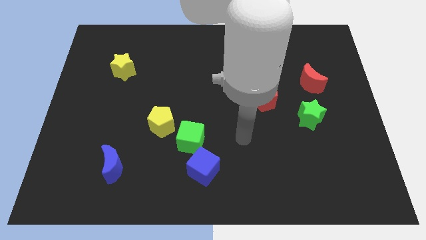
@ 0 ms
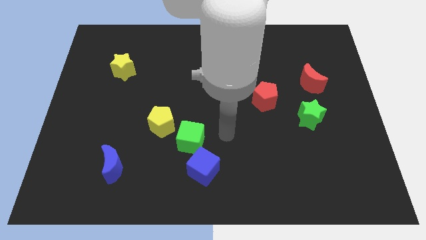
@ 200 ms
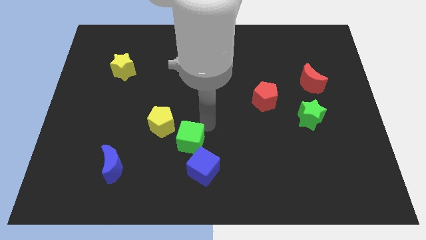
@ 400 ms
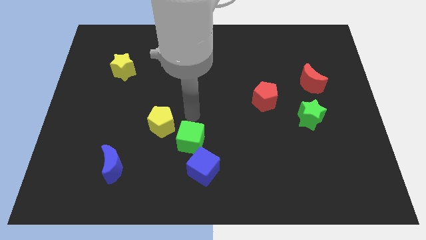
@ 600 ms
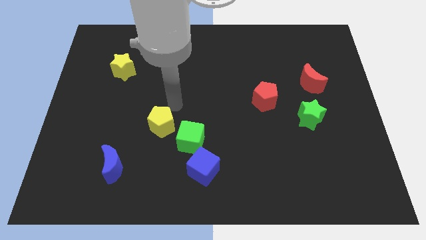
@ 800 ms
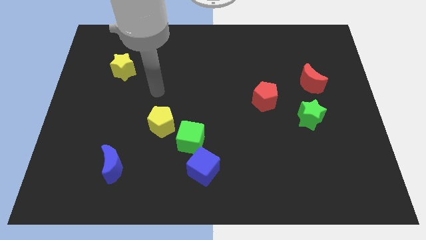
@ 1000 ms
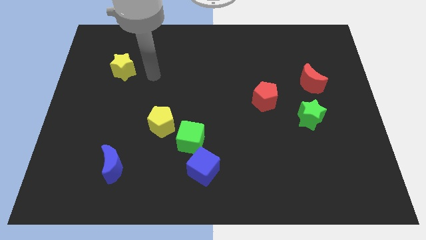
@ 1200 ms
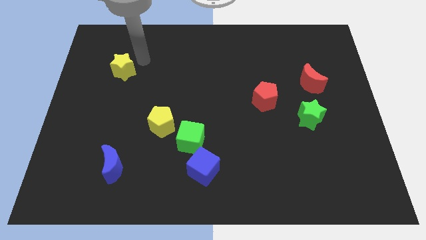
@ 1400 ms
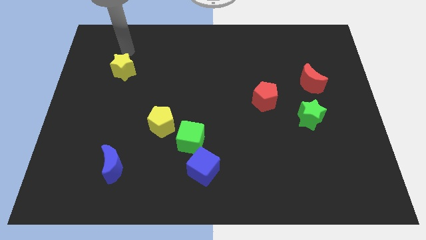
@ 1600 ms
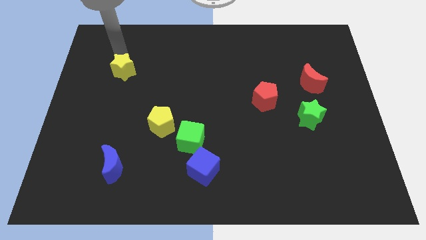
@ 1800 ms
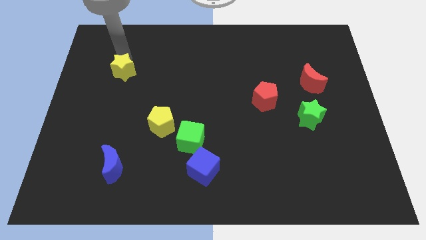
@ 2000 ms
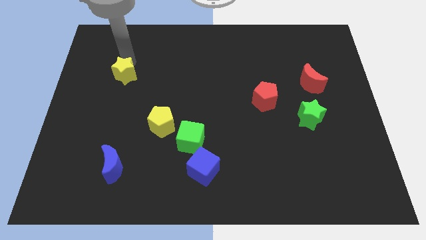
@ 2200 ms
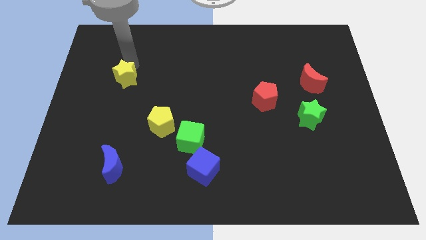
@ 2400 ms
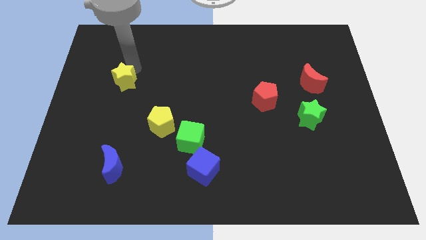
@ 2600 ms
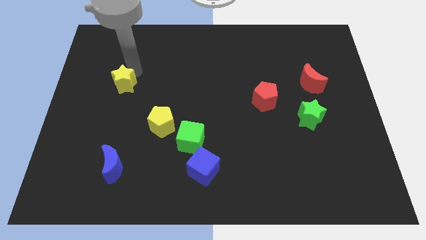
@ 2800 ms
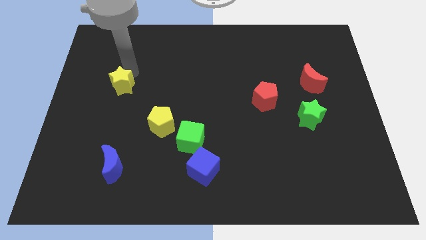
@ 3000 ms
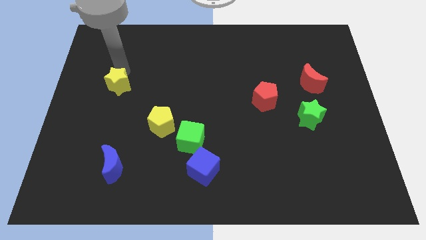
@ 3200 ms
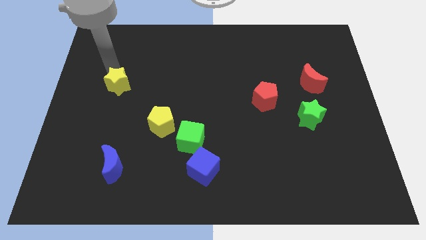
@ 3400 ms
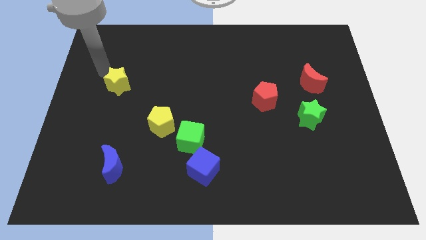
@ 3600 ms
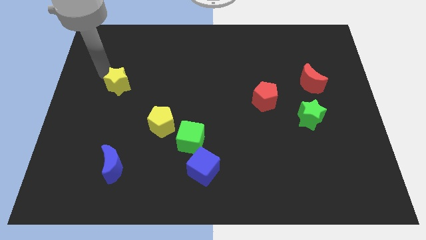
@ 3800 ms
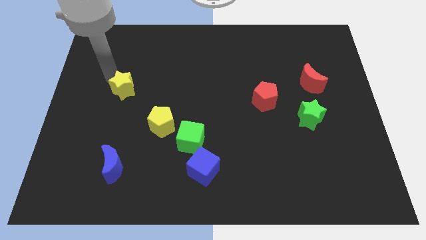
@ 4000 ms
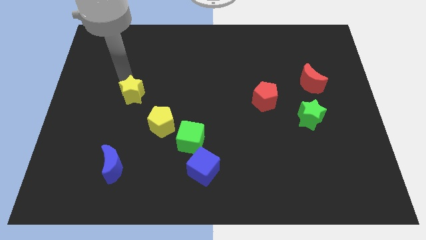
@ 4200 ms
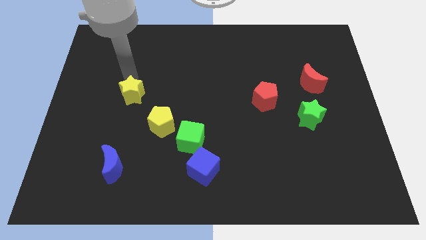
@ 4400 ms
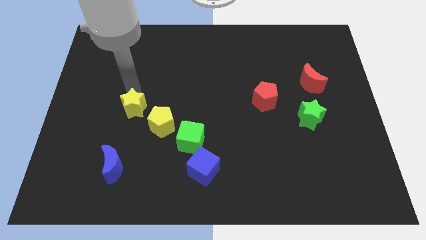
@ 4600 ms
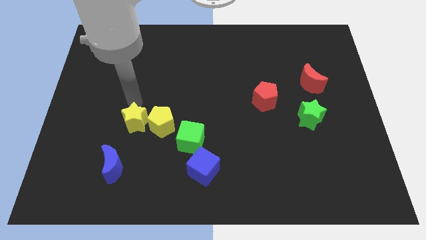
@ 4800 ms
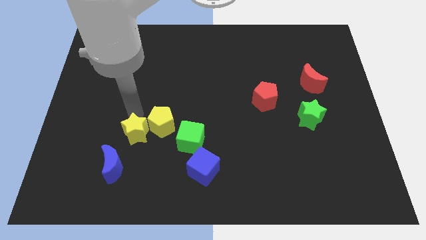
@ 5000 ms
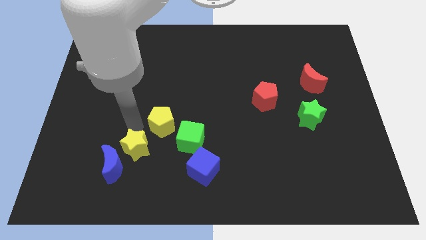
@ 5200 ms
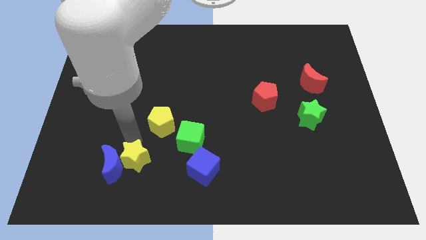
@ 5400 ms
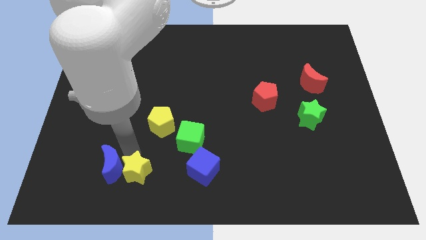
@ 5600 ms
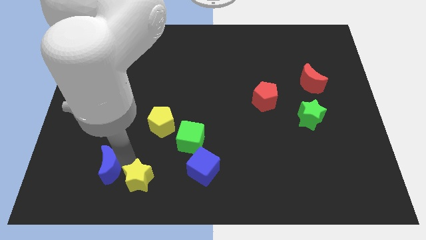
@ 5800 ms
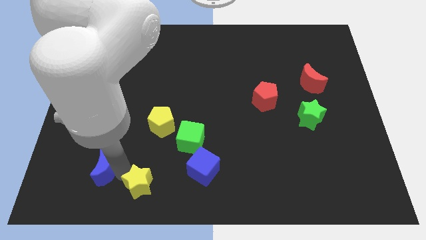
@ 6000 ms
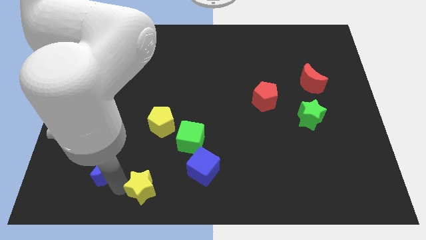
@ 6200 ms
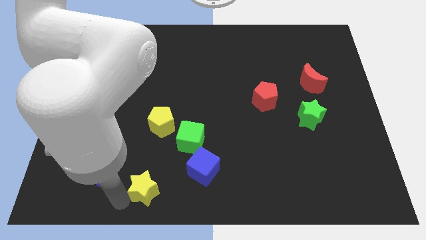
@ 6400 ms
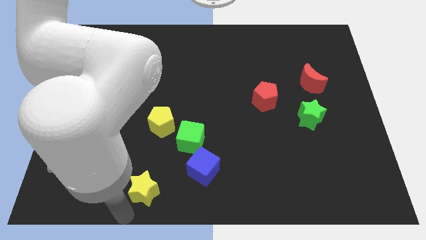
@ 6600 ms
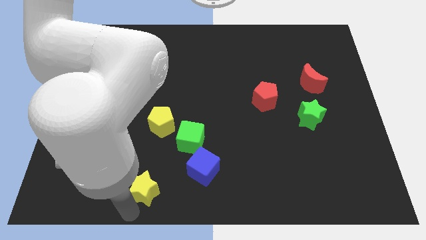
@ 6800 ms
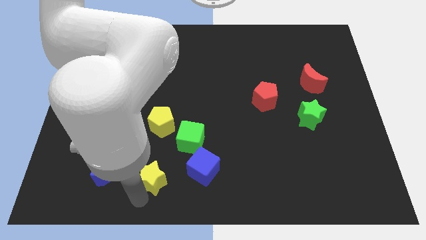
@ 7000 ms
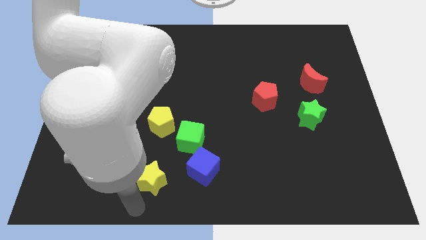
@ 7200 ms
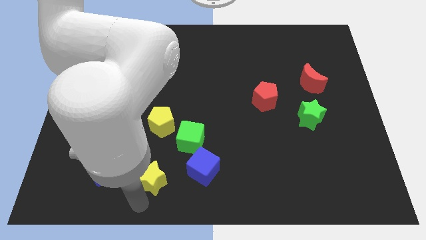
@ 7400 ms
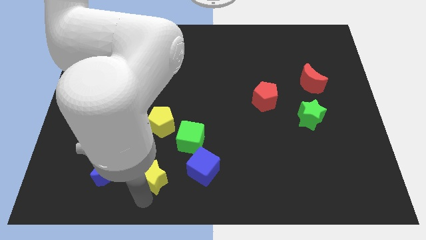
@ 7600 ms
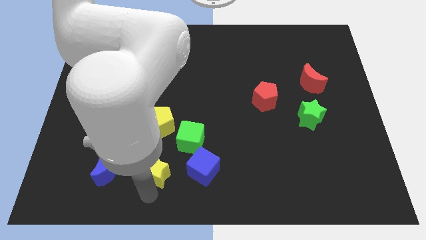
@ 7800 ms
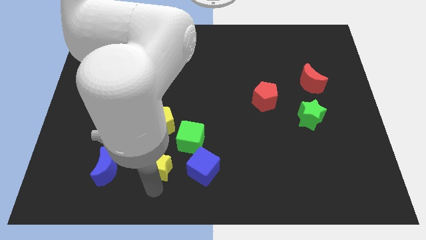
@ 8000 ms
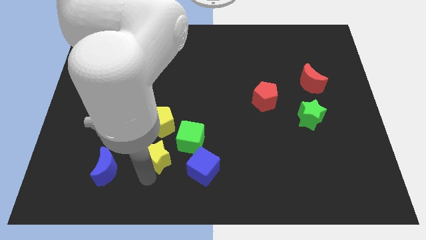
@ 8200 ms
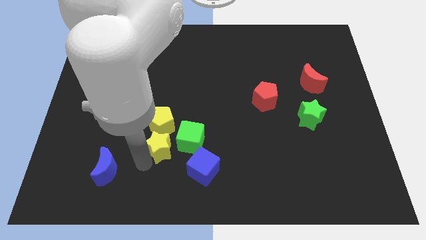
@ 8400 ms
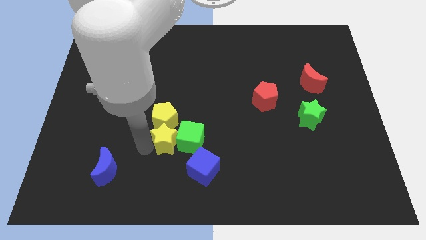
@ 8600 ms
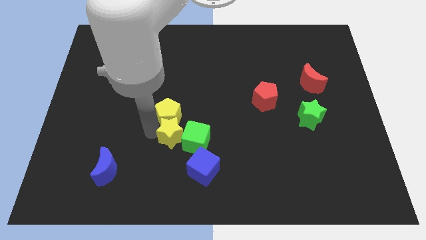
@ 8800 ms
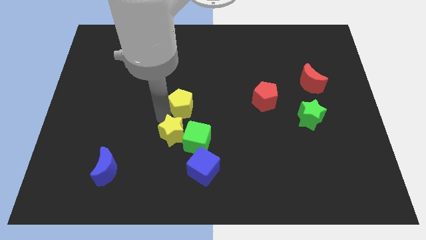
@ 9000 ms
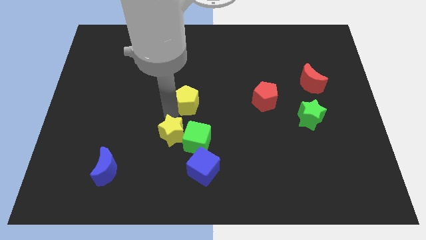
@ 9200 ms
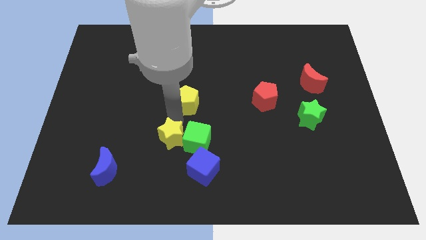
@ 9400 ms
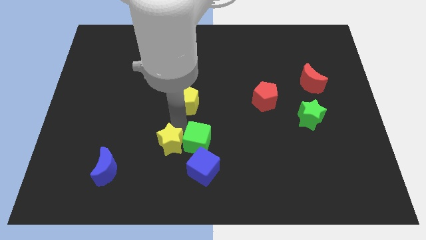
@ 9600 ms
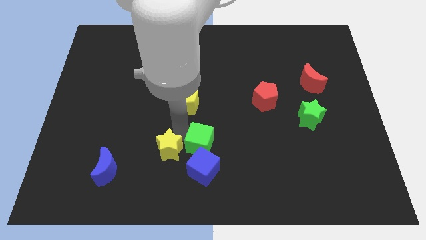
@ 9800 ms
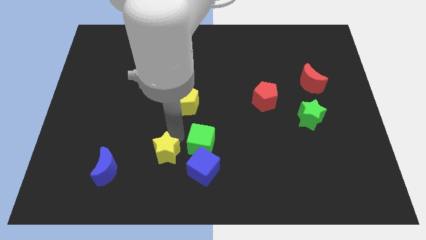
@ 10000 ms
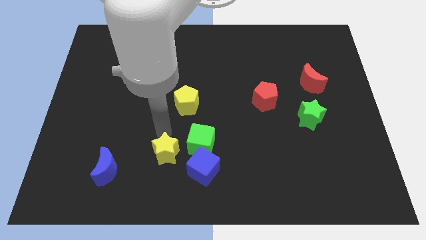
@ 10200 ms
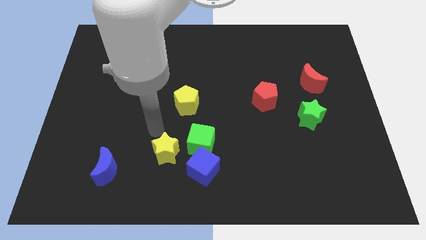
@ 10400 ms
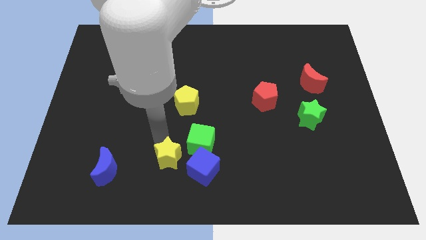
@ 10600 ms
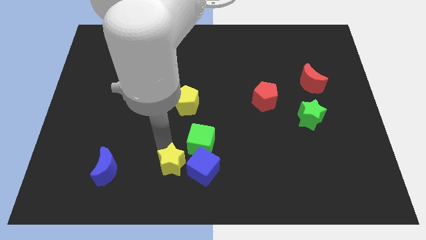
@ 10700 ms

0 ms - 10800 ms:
slide the yellow star to the bottom

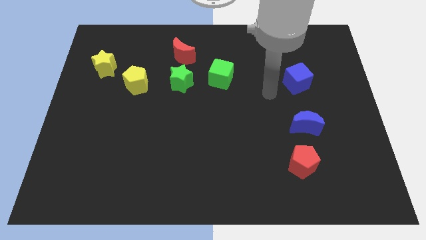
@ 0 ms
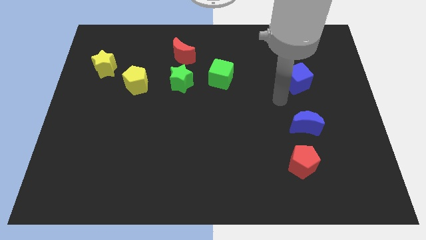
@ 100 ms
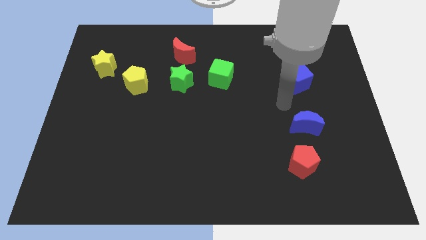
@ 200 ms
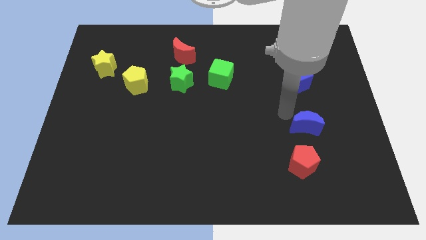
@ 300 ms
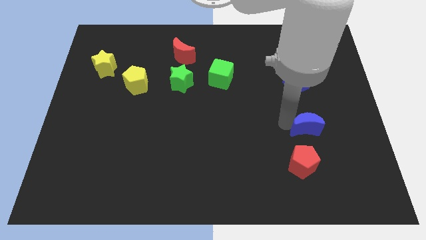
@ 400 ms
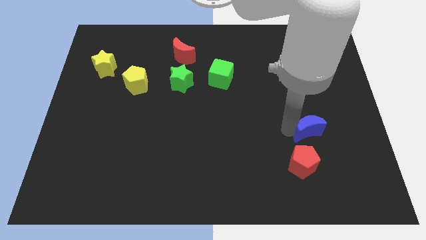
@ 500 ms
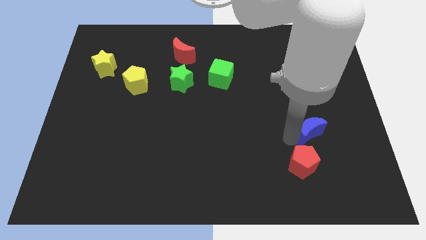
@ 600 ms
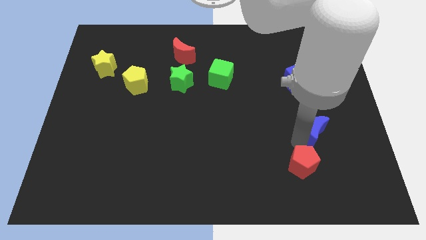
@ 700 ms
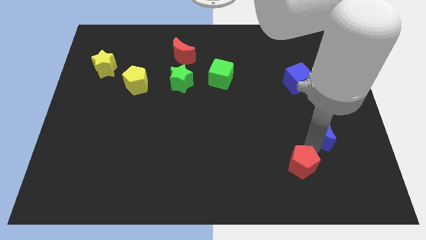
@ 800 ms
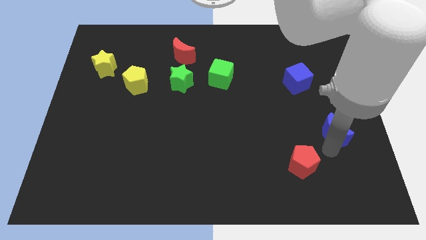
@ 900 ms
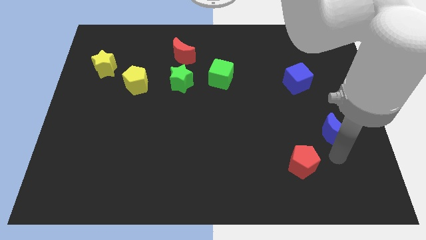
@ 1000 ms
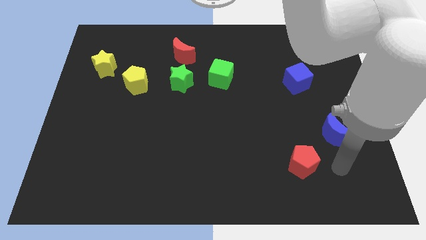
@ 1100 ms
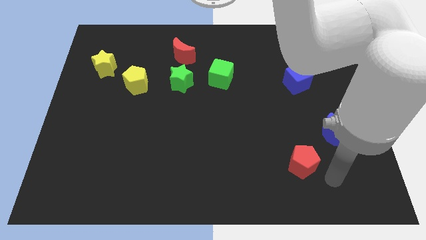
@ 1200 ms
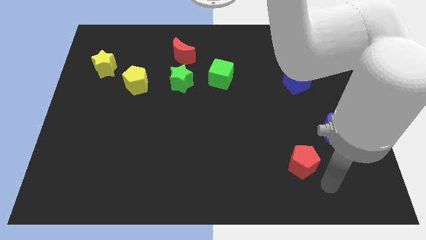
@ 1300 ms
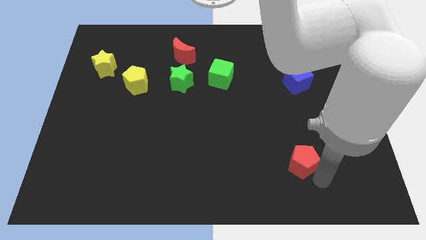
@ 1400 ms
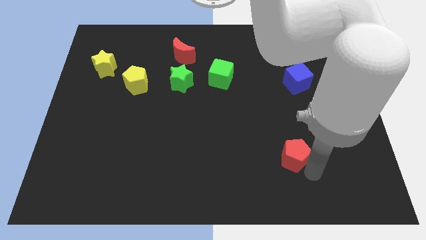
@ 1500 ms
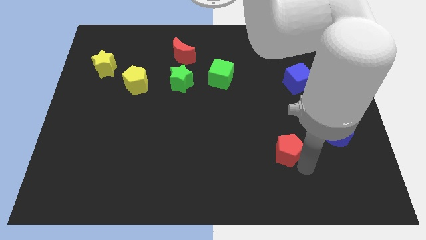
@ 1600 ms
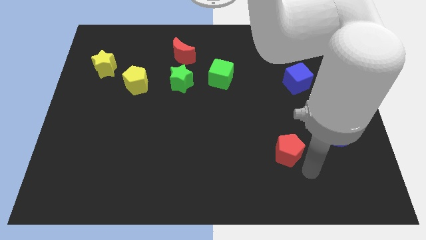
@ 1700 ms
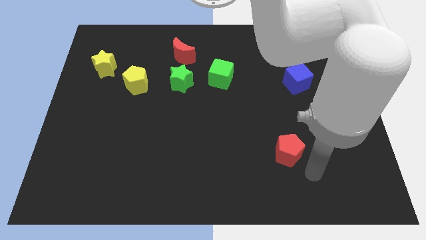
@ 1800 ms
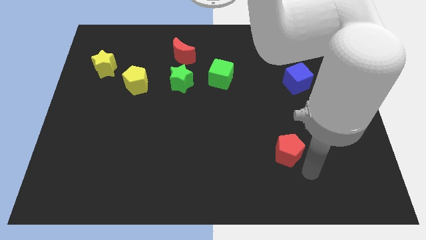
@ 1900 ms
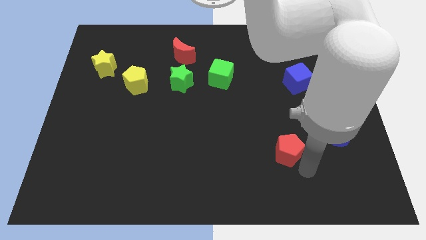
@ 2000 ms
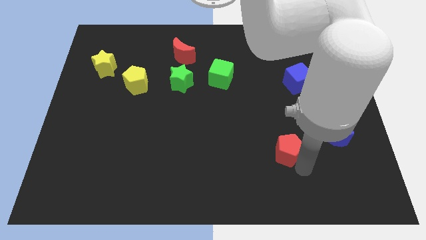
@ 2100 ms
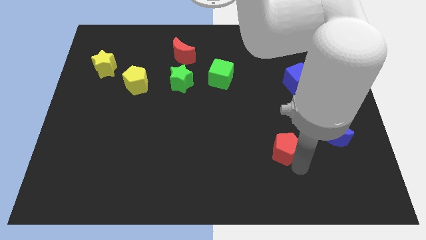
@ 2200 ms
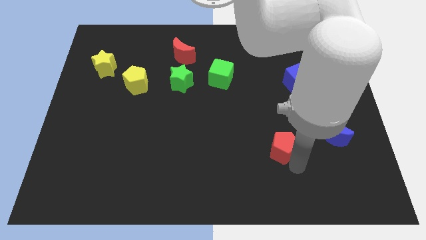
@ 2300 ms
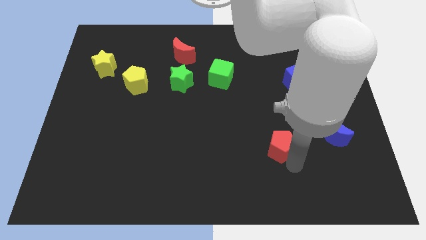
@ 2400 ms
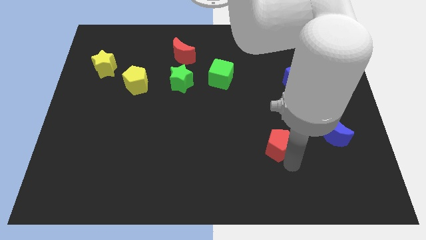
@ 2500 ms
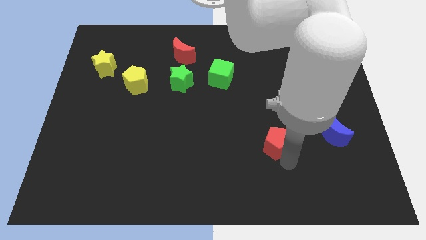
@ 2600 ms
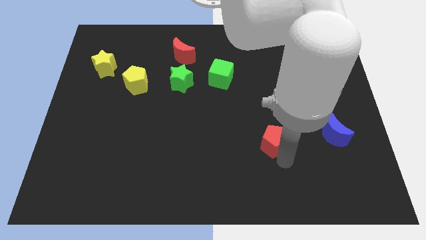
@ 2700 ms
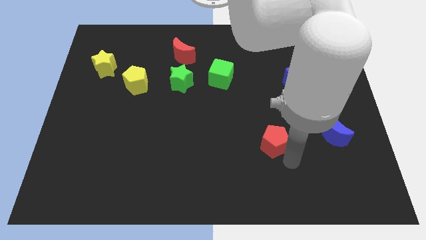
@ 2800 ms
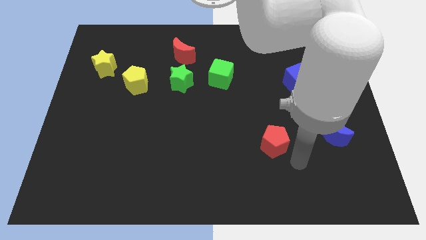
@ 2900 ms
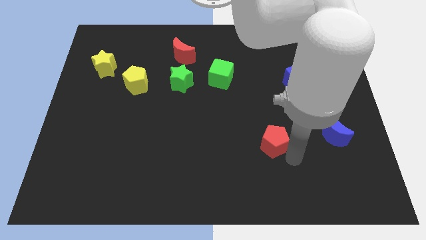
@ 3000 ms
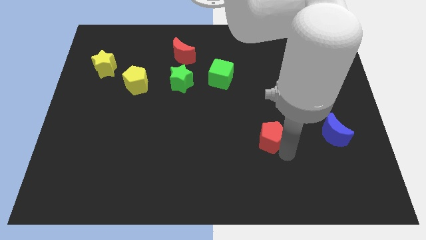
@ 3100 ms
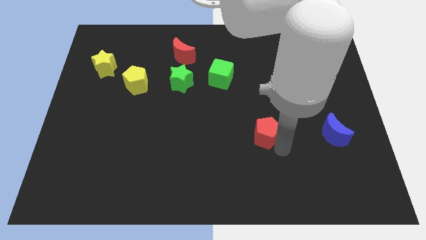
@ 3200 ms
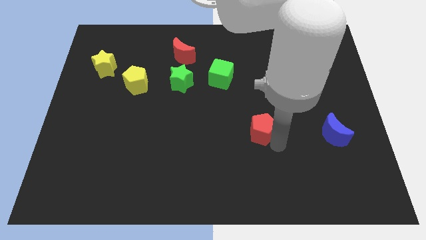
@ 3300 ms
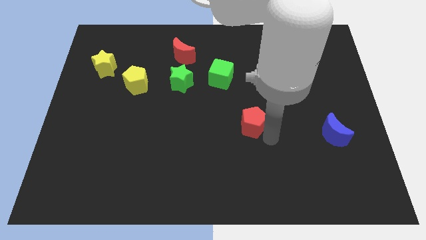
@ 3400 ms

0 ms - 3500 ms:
move the red pentagon to the middle
